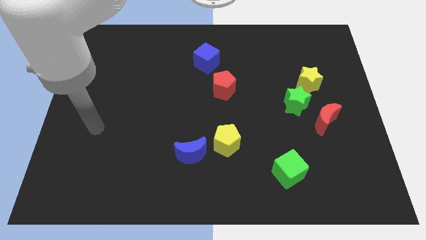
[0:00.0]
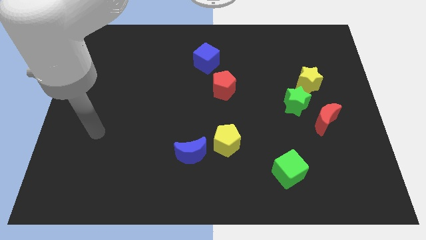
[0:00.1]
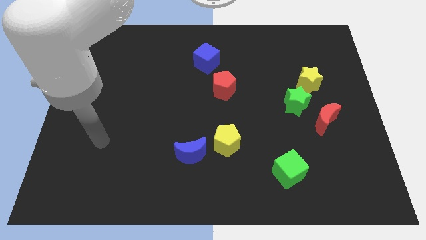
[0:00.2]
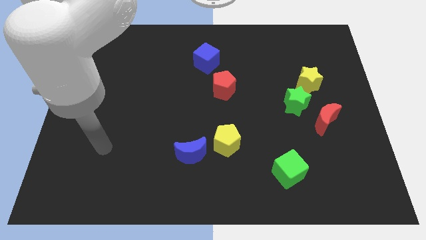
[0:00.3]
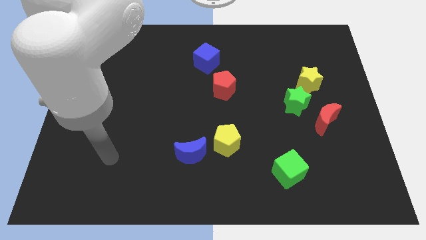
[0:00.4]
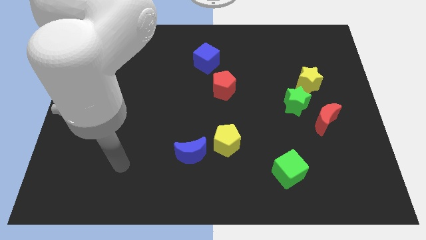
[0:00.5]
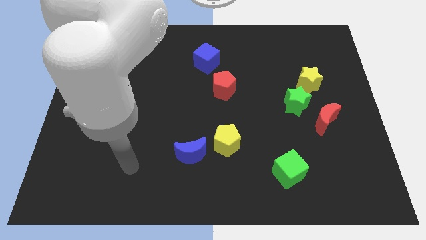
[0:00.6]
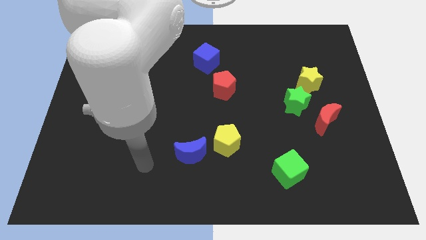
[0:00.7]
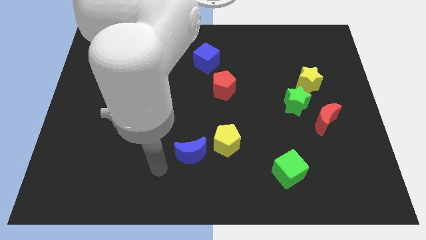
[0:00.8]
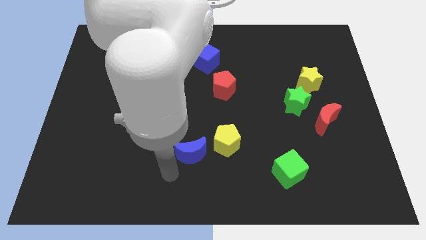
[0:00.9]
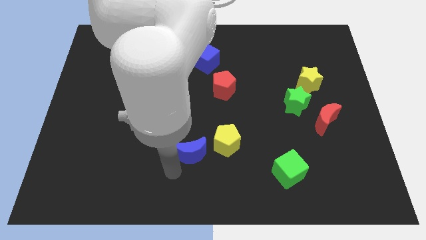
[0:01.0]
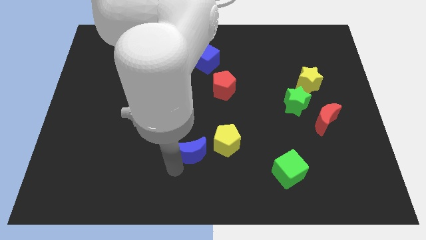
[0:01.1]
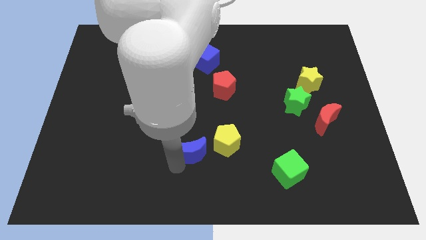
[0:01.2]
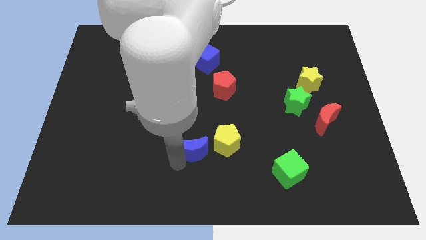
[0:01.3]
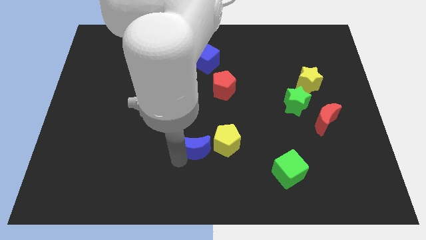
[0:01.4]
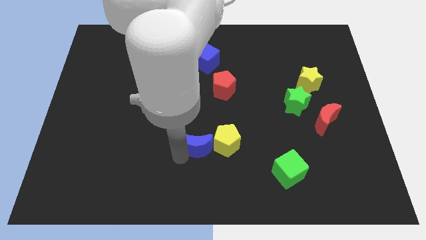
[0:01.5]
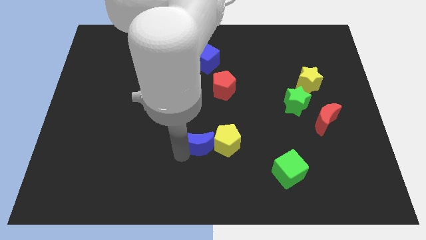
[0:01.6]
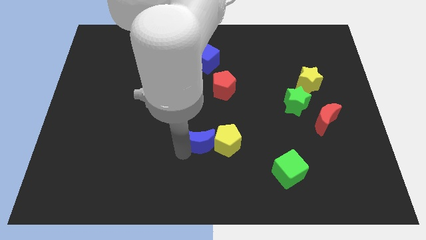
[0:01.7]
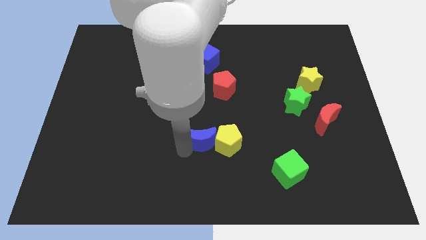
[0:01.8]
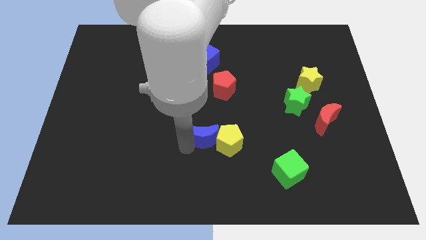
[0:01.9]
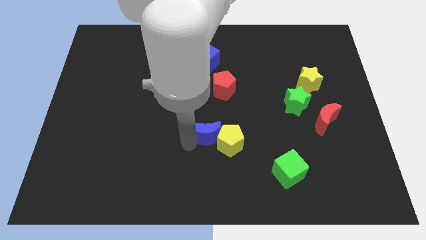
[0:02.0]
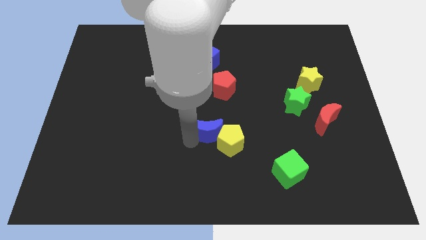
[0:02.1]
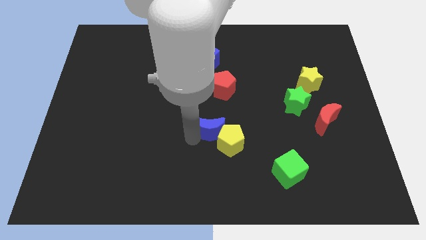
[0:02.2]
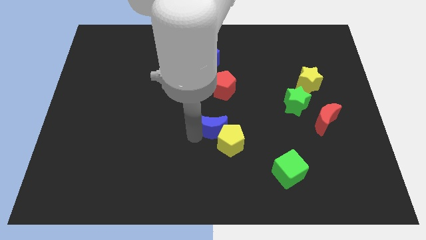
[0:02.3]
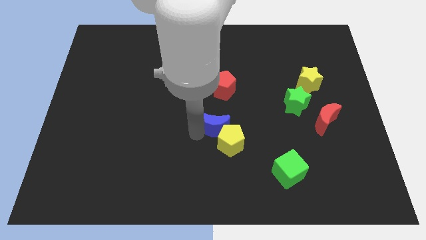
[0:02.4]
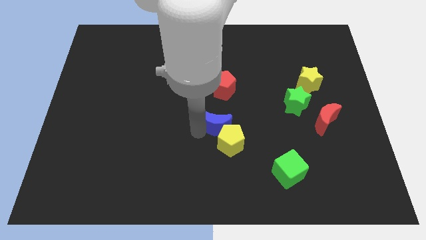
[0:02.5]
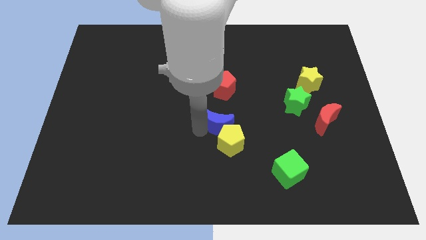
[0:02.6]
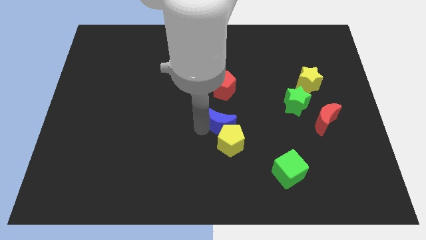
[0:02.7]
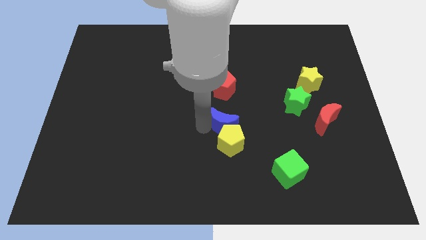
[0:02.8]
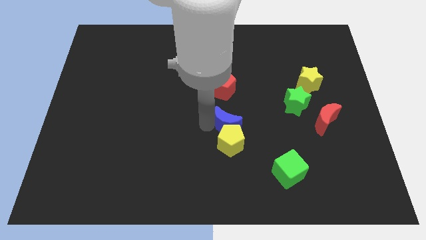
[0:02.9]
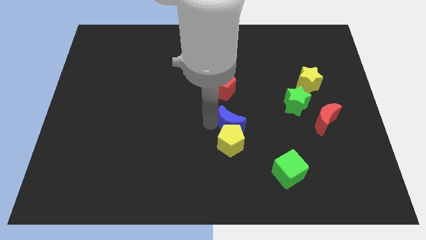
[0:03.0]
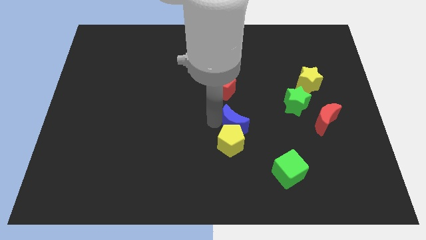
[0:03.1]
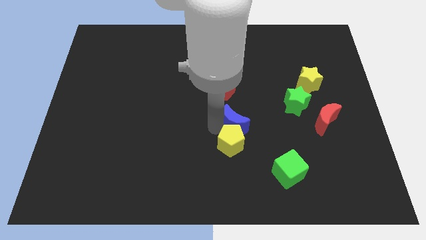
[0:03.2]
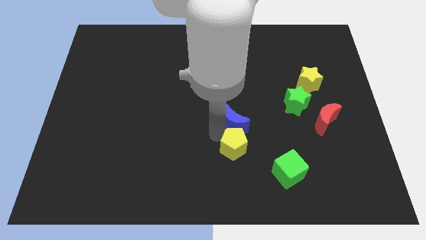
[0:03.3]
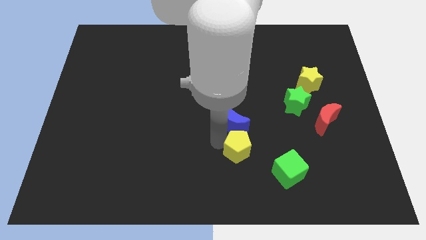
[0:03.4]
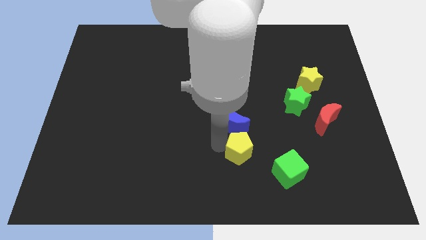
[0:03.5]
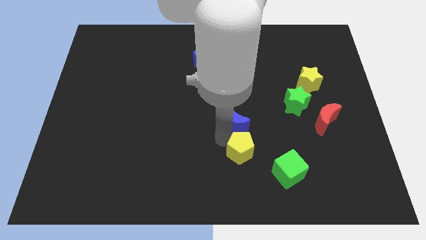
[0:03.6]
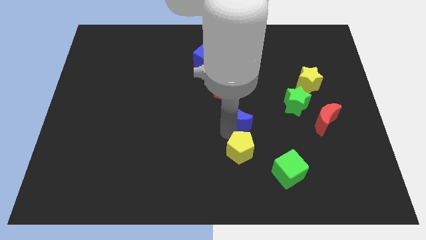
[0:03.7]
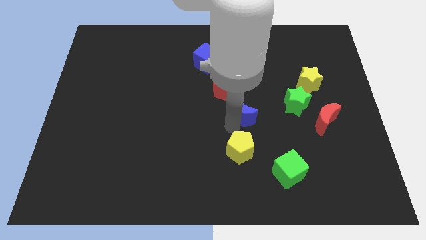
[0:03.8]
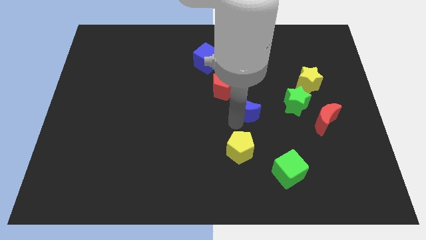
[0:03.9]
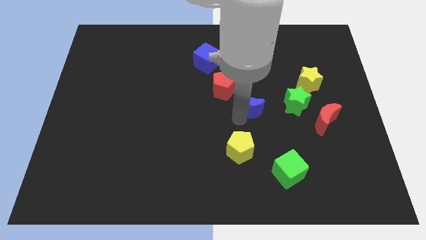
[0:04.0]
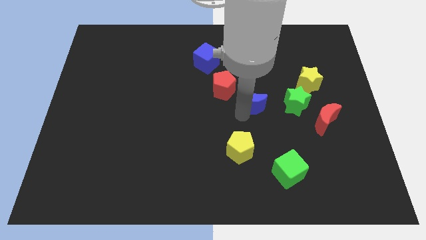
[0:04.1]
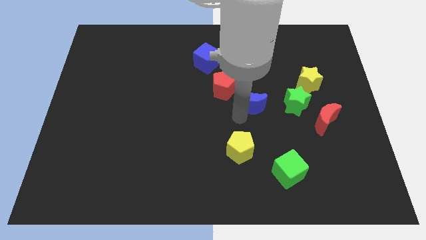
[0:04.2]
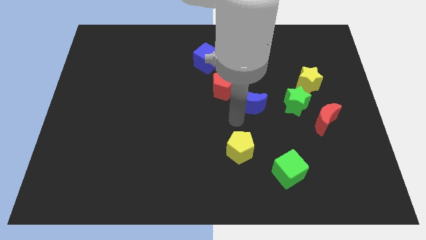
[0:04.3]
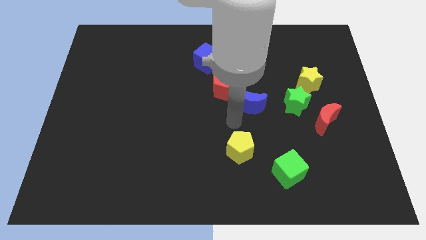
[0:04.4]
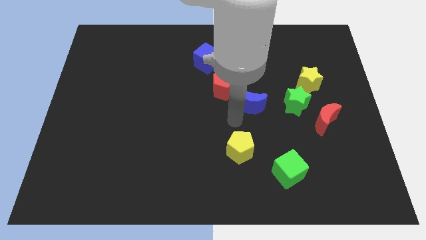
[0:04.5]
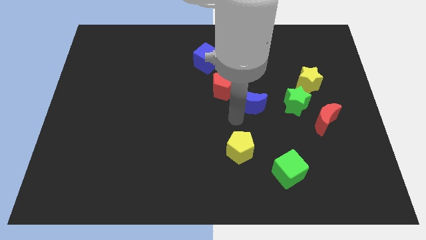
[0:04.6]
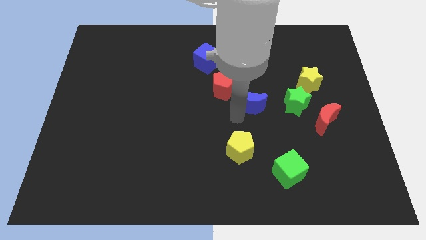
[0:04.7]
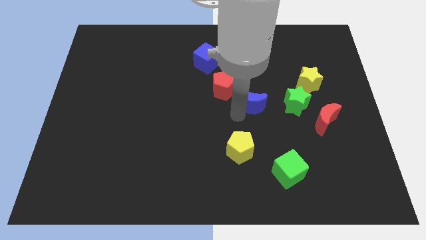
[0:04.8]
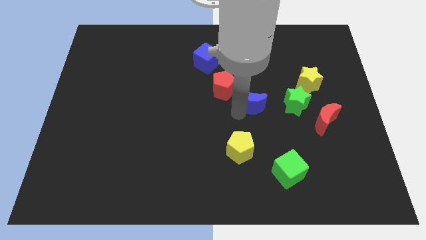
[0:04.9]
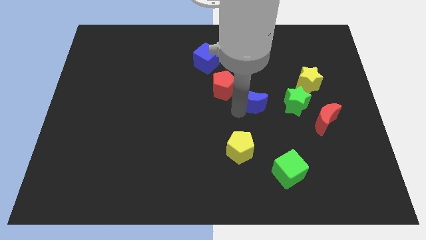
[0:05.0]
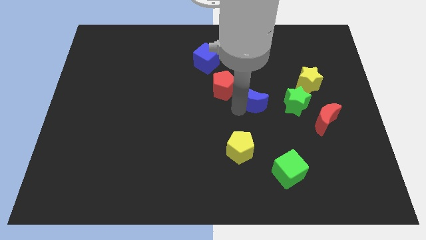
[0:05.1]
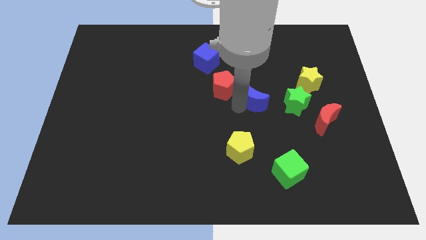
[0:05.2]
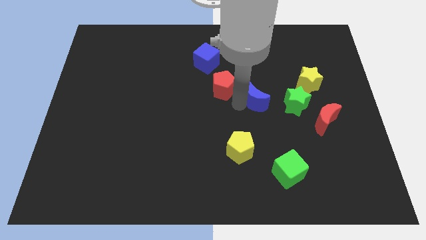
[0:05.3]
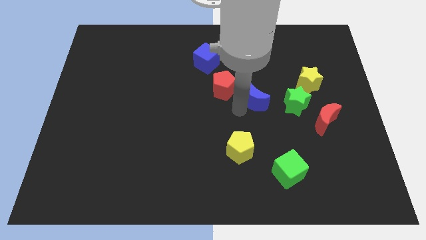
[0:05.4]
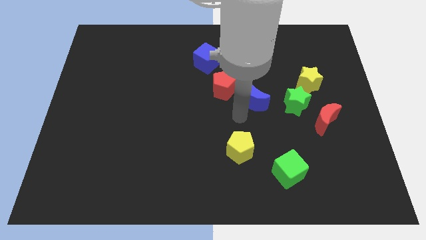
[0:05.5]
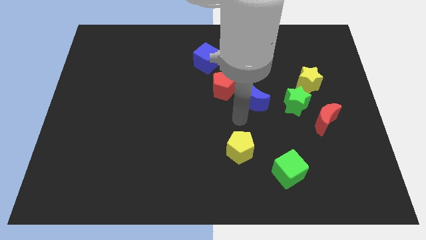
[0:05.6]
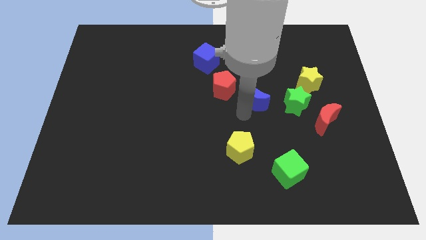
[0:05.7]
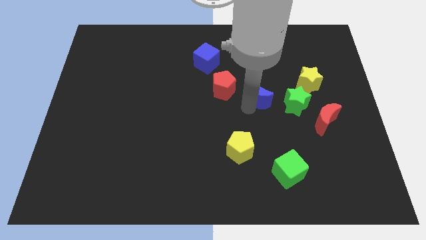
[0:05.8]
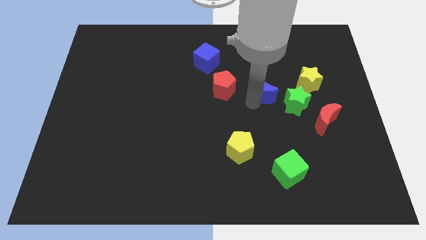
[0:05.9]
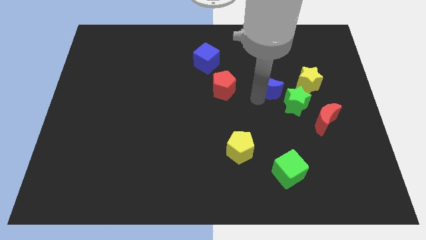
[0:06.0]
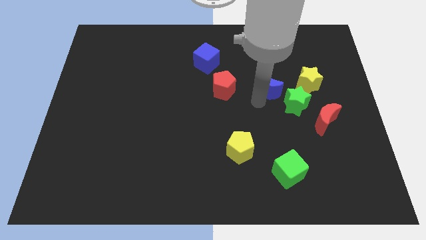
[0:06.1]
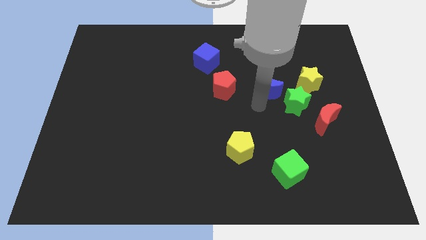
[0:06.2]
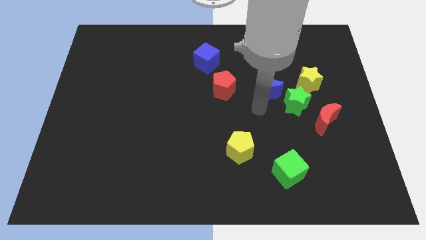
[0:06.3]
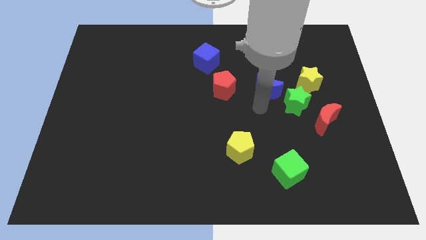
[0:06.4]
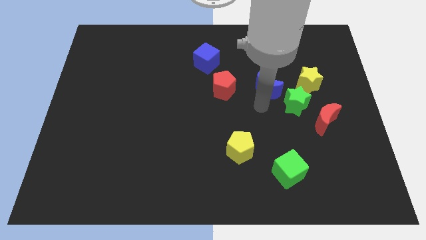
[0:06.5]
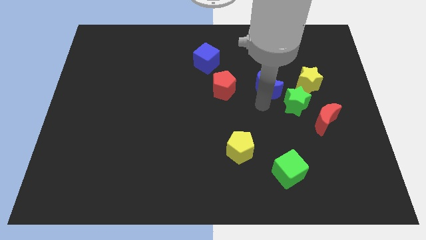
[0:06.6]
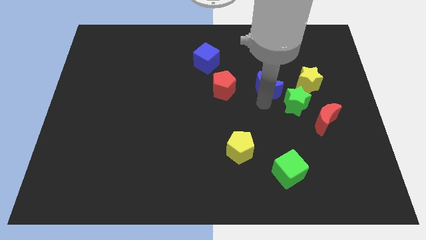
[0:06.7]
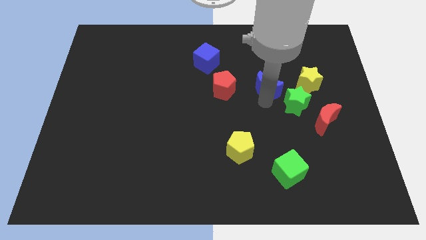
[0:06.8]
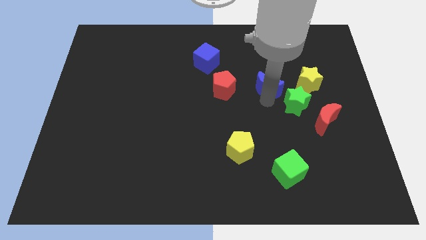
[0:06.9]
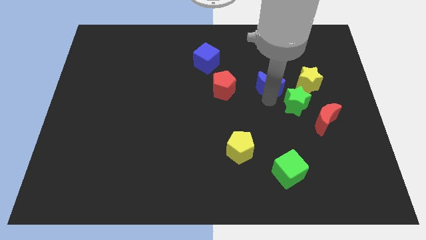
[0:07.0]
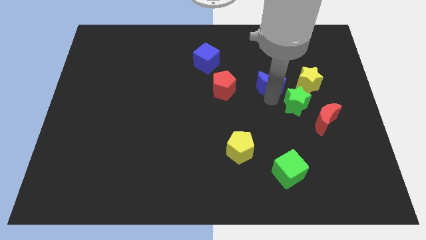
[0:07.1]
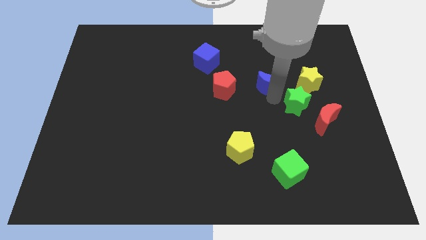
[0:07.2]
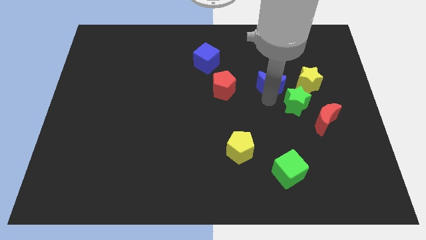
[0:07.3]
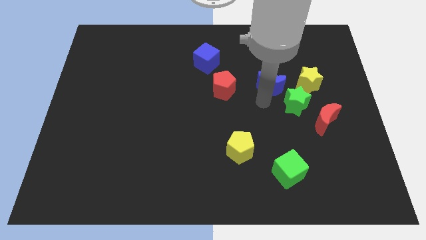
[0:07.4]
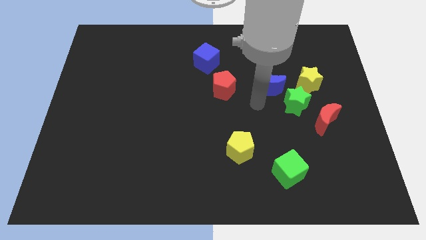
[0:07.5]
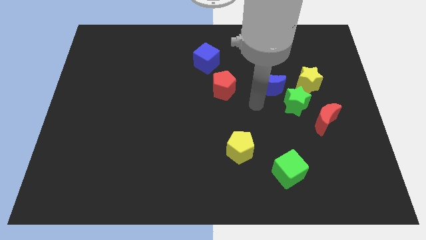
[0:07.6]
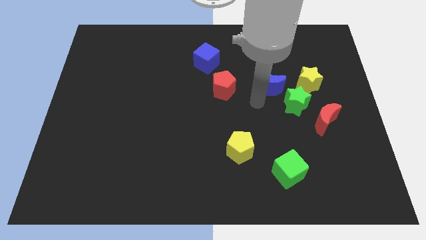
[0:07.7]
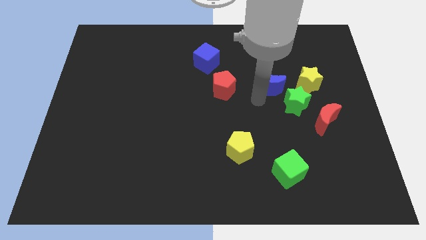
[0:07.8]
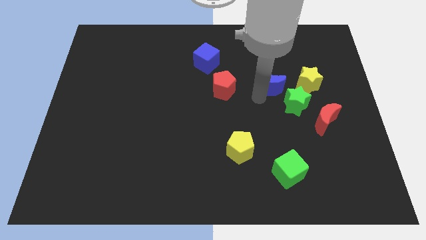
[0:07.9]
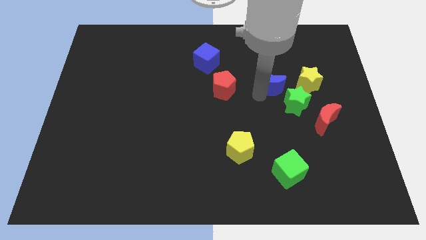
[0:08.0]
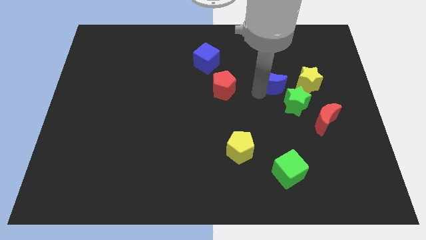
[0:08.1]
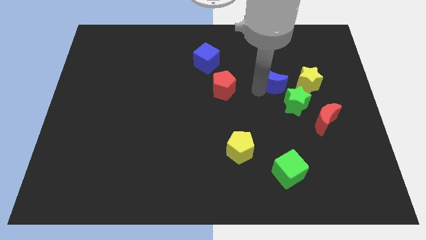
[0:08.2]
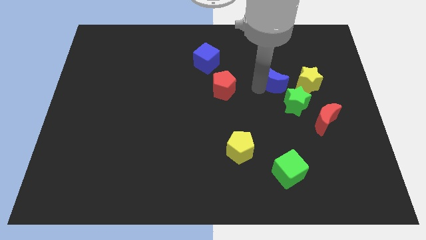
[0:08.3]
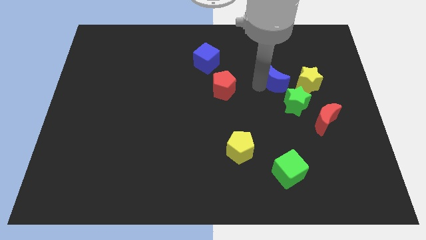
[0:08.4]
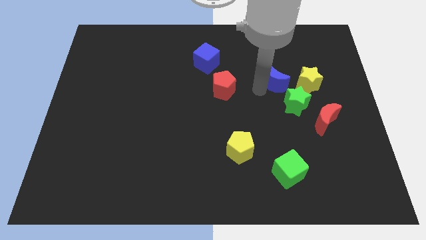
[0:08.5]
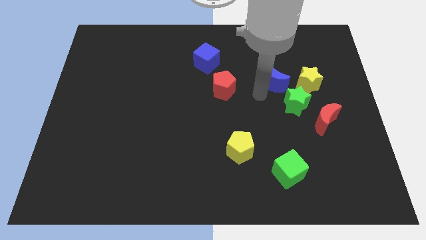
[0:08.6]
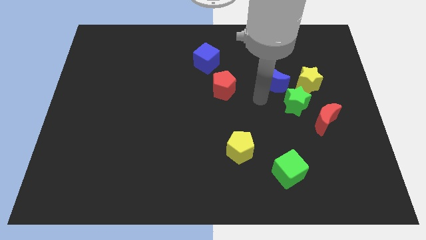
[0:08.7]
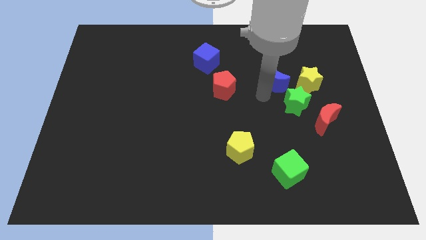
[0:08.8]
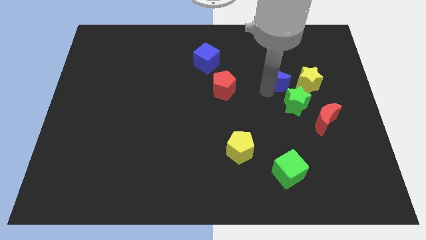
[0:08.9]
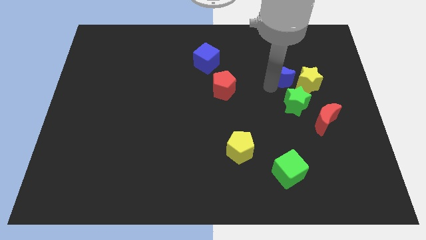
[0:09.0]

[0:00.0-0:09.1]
slide the blue moon to the top left of the yellow star
